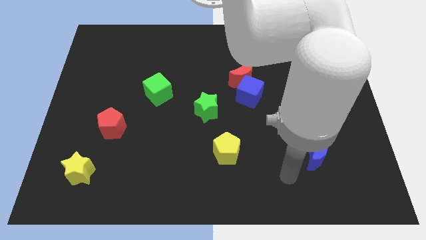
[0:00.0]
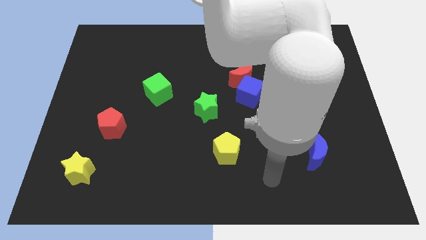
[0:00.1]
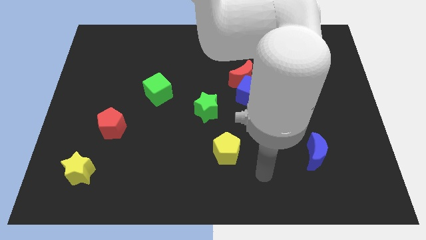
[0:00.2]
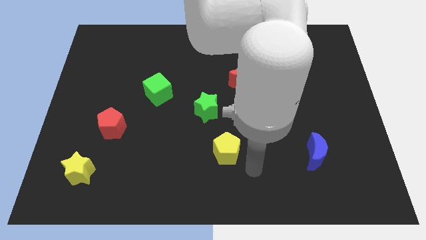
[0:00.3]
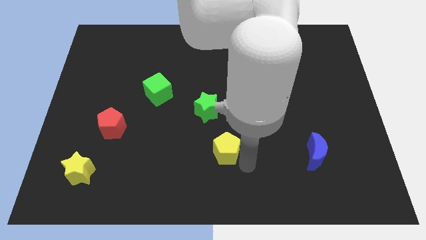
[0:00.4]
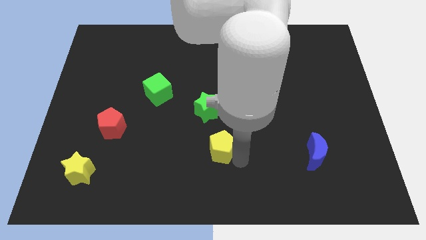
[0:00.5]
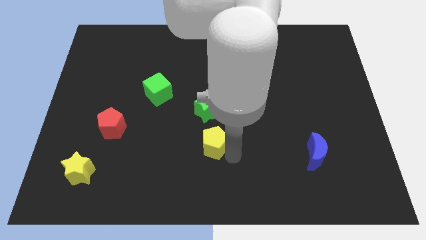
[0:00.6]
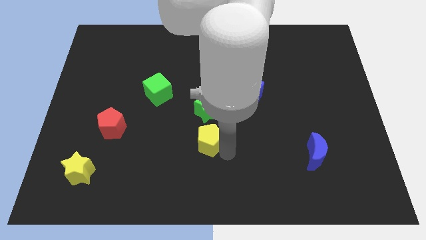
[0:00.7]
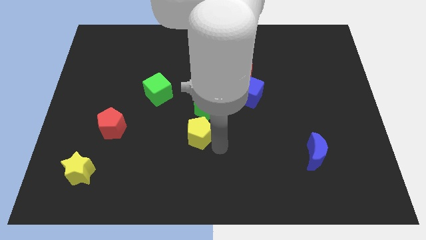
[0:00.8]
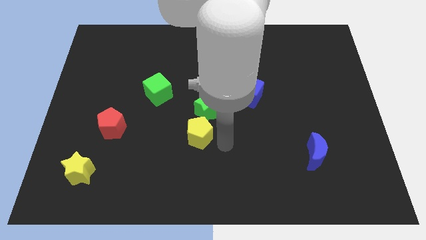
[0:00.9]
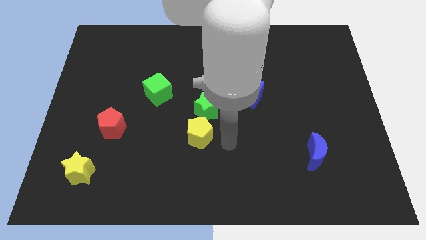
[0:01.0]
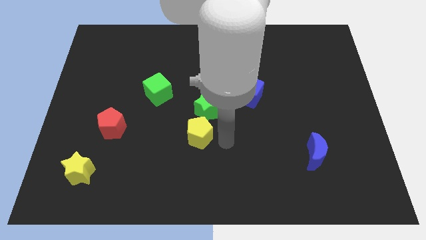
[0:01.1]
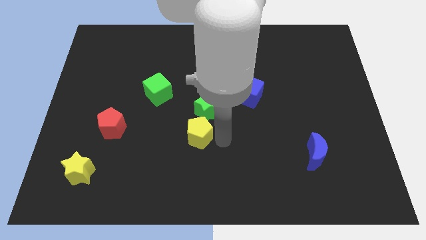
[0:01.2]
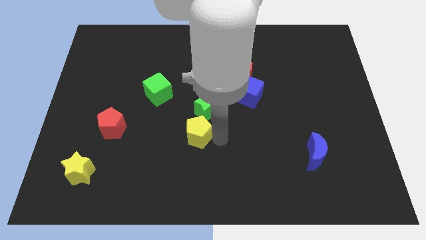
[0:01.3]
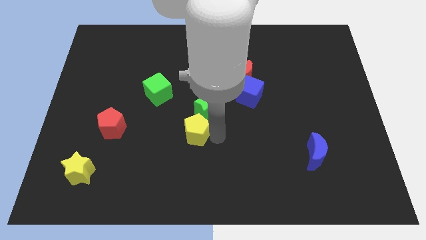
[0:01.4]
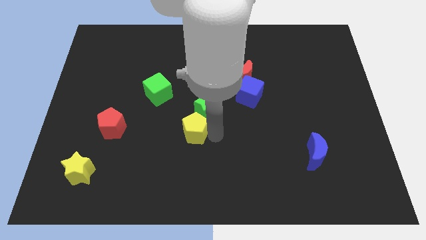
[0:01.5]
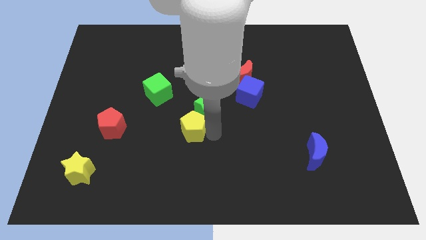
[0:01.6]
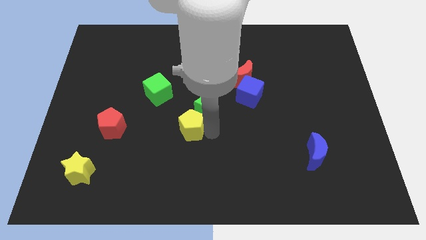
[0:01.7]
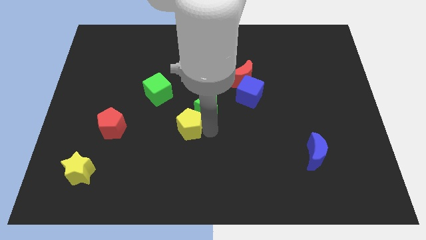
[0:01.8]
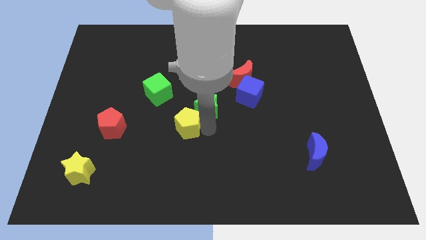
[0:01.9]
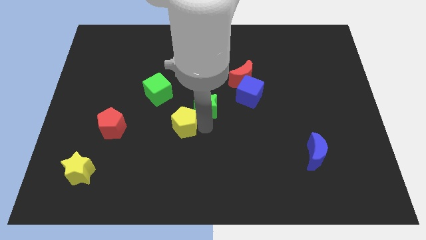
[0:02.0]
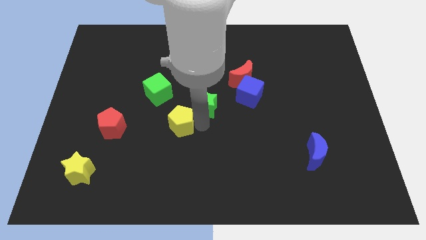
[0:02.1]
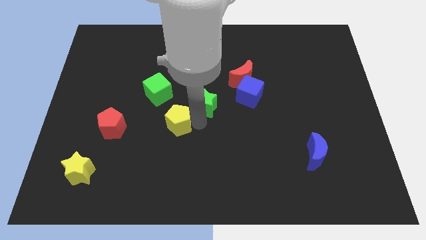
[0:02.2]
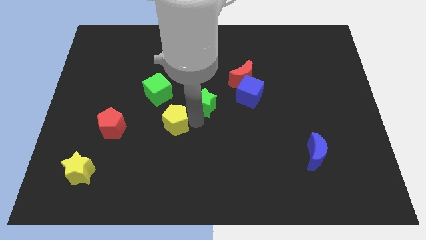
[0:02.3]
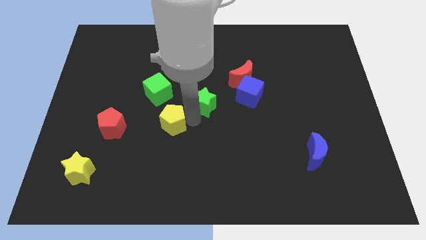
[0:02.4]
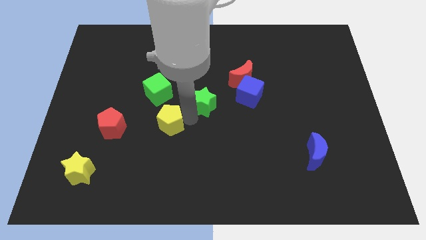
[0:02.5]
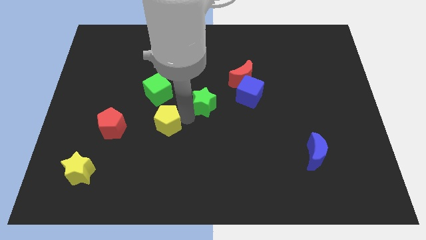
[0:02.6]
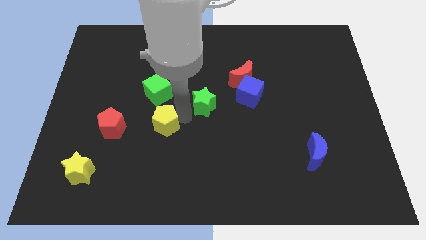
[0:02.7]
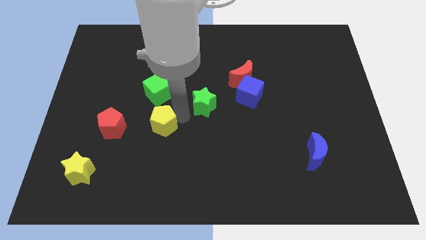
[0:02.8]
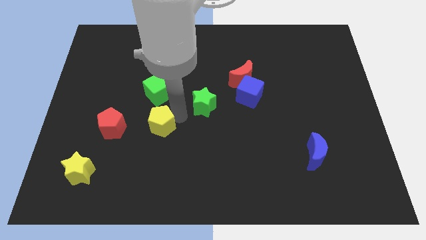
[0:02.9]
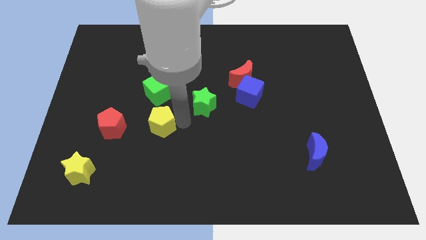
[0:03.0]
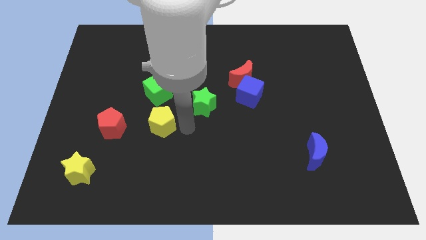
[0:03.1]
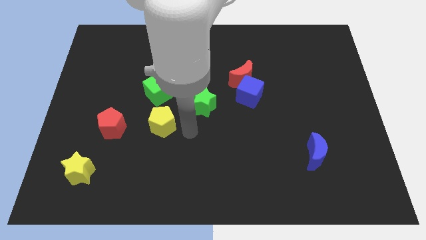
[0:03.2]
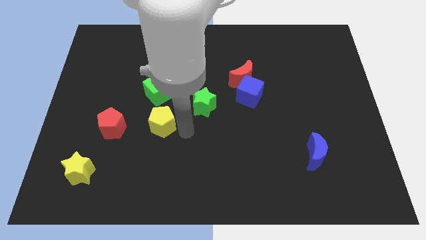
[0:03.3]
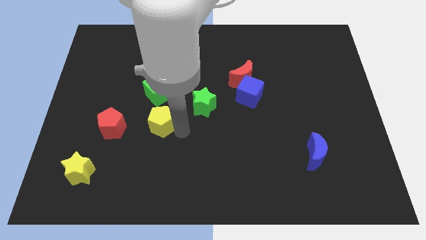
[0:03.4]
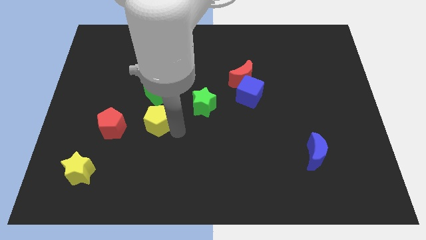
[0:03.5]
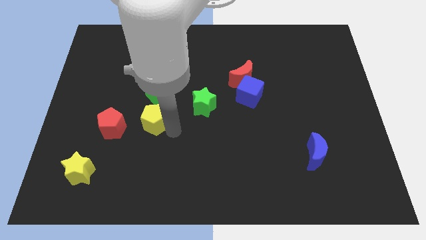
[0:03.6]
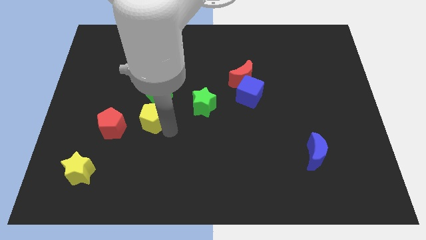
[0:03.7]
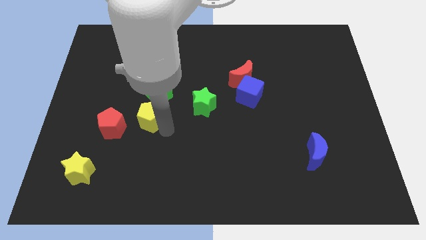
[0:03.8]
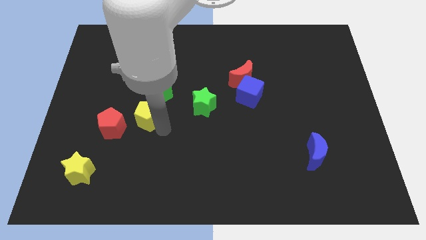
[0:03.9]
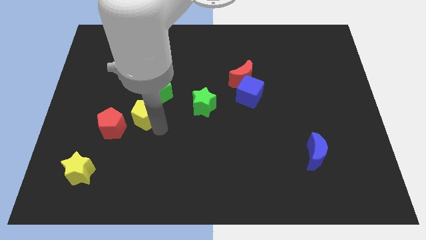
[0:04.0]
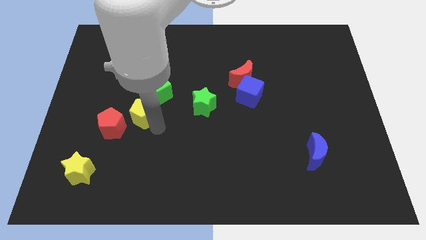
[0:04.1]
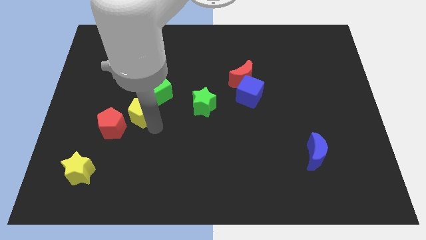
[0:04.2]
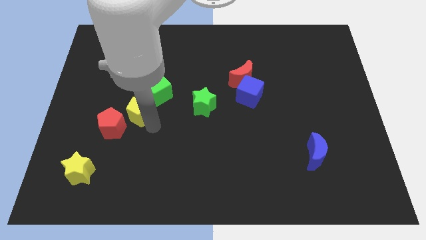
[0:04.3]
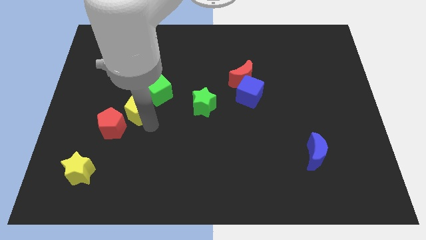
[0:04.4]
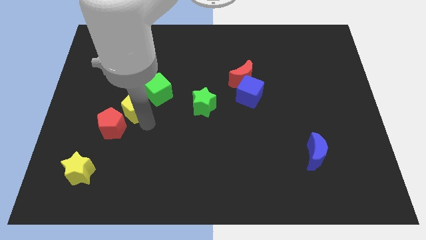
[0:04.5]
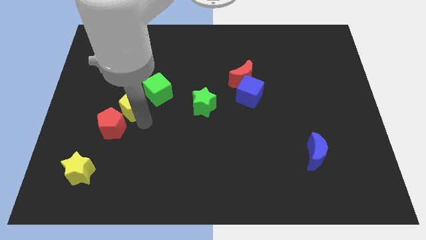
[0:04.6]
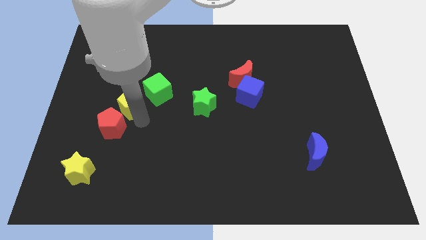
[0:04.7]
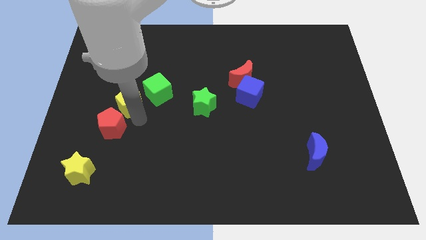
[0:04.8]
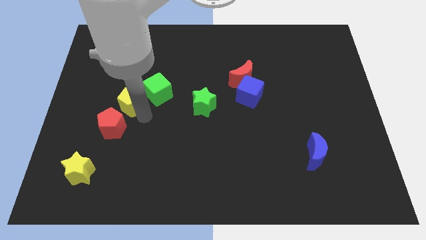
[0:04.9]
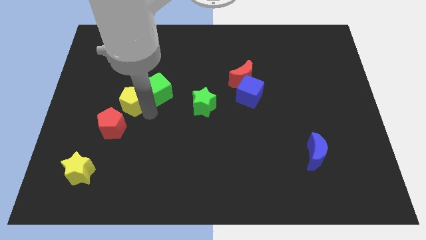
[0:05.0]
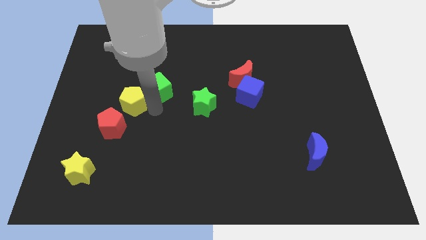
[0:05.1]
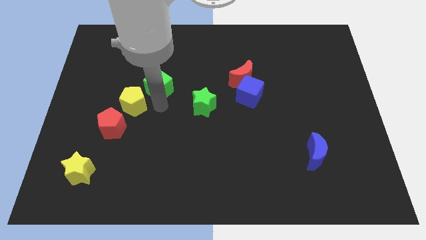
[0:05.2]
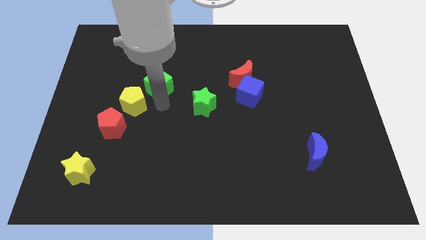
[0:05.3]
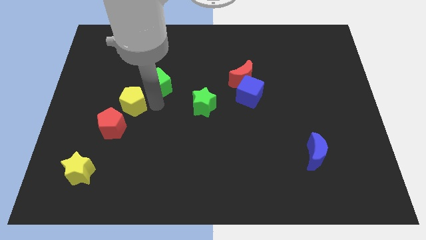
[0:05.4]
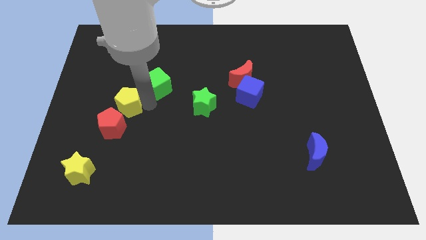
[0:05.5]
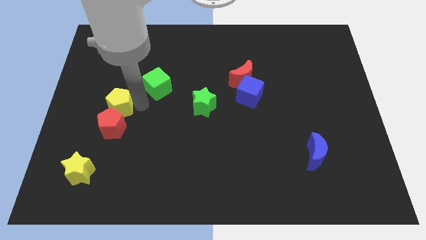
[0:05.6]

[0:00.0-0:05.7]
slide the yellow pentagon to the top left side of the red pentagon

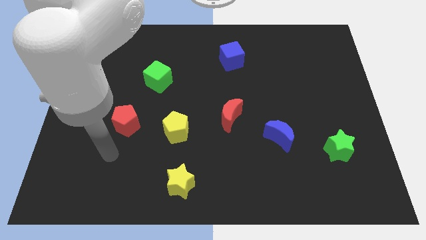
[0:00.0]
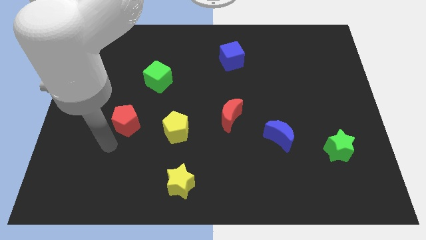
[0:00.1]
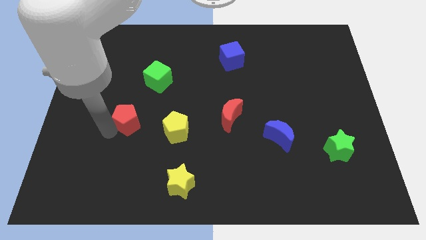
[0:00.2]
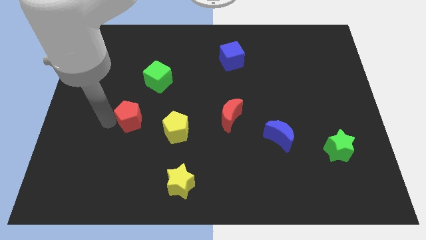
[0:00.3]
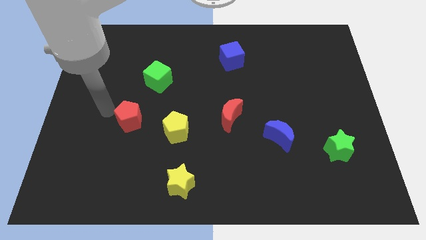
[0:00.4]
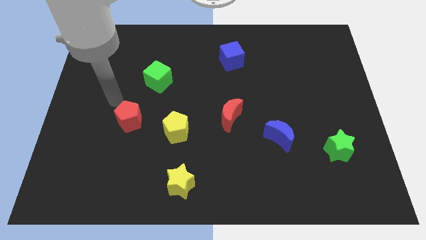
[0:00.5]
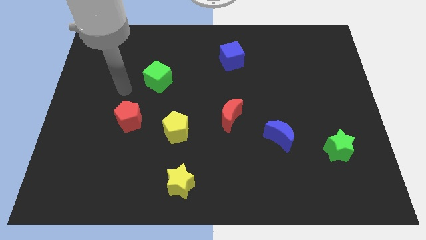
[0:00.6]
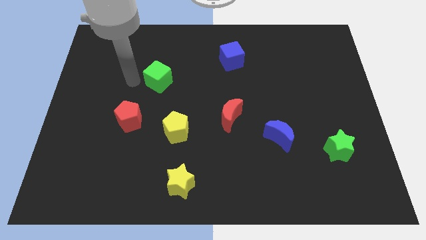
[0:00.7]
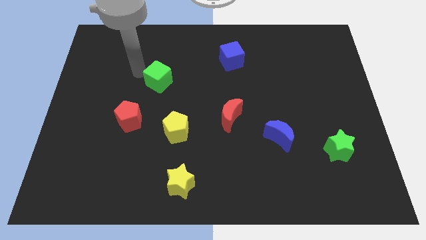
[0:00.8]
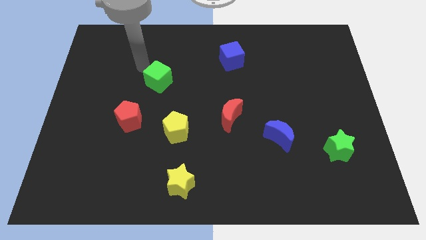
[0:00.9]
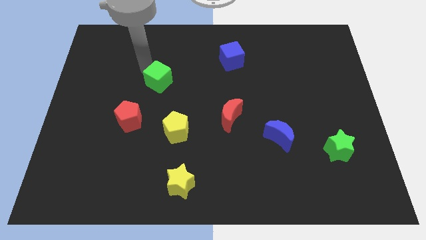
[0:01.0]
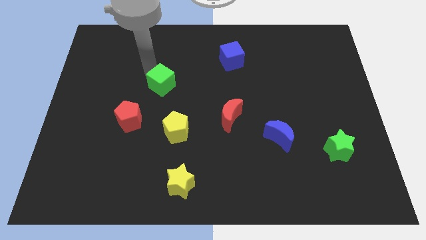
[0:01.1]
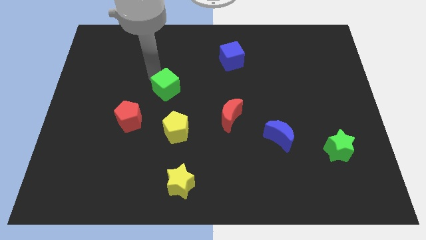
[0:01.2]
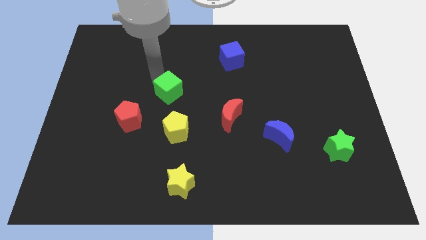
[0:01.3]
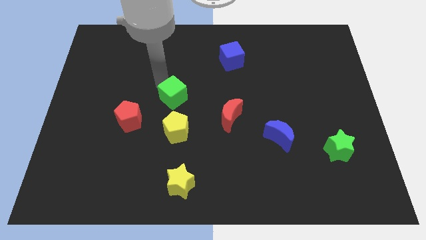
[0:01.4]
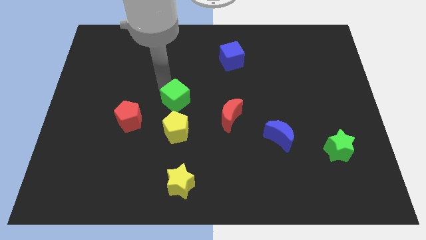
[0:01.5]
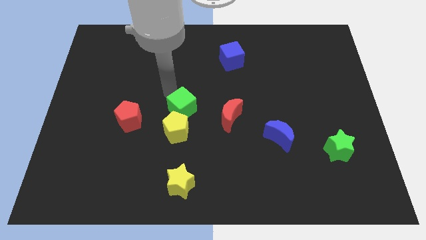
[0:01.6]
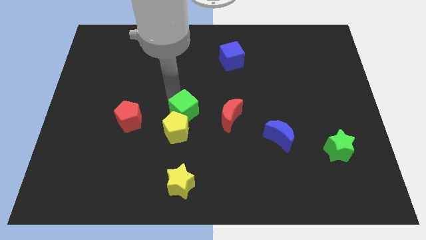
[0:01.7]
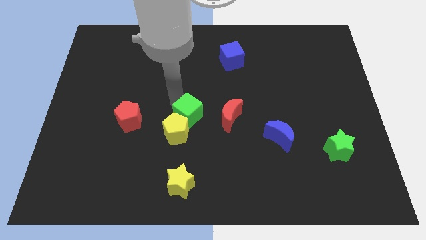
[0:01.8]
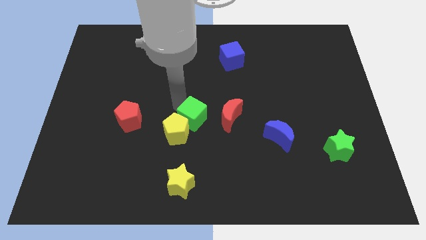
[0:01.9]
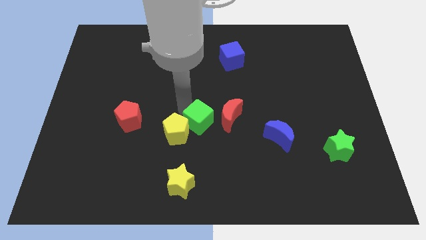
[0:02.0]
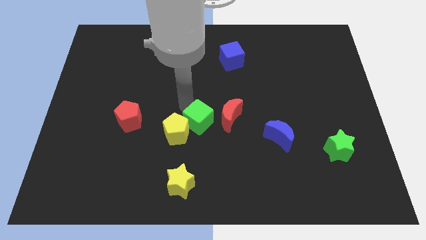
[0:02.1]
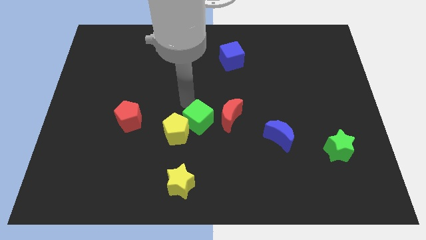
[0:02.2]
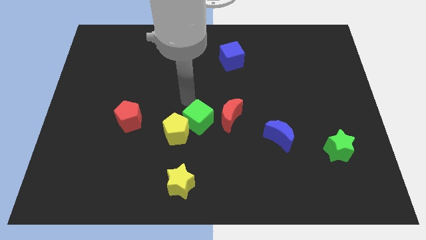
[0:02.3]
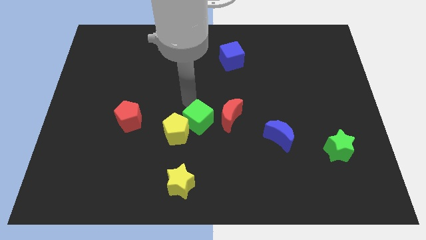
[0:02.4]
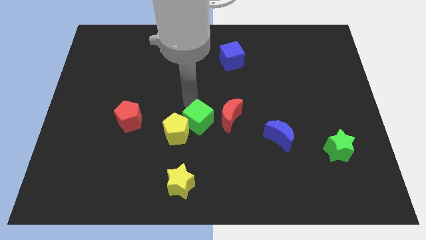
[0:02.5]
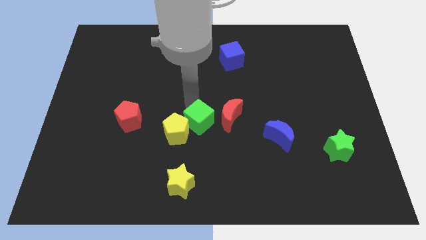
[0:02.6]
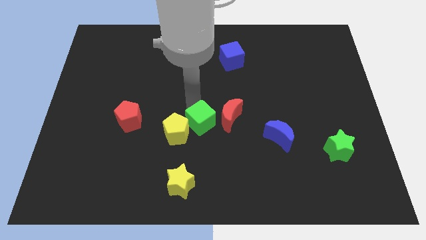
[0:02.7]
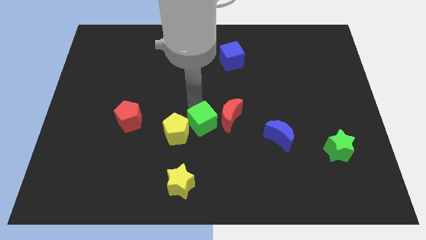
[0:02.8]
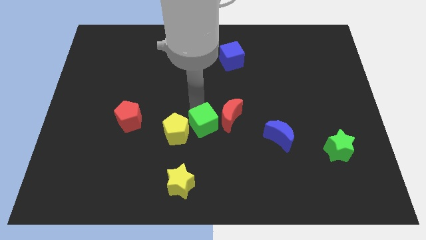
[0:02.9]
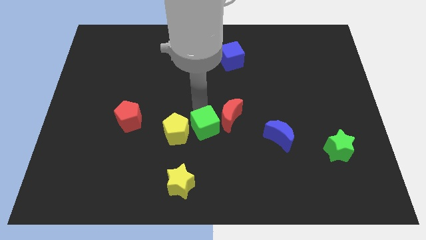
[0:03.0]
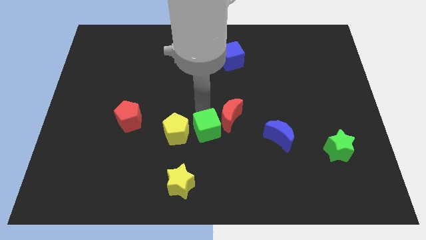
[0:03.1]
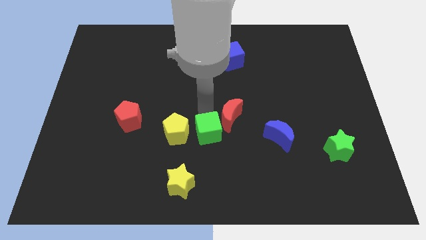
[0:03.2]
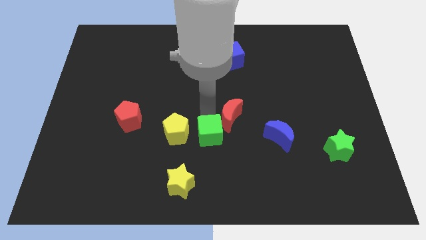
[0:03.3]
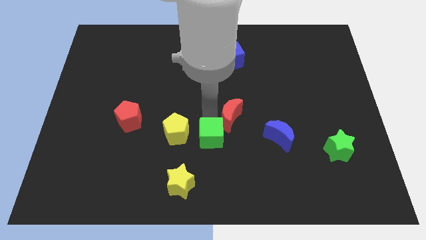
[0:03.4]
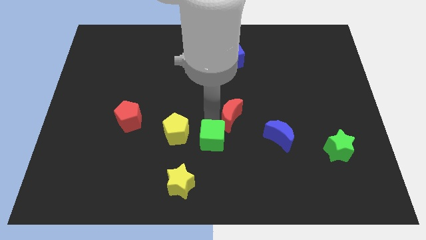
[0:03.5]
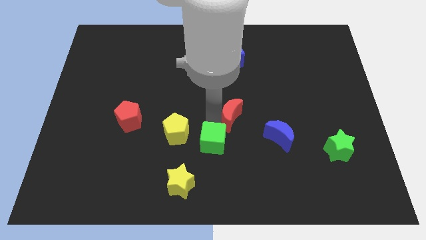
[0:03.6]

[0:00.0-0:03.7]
slide the green cube diagonally up and to the right of the yellow star
